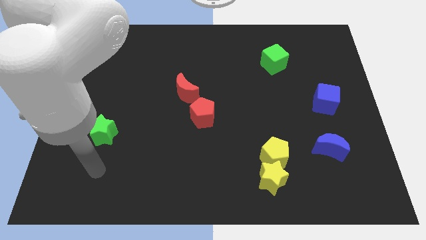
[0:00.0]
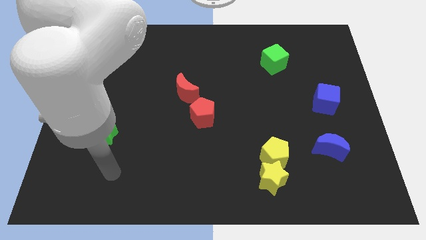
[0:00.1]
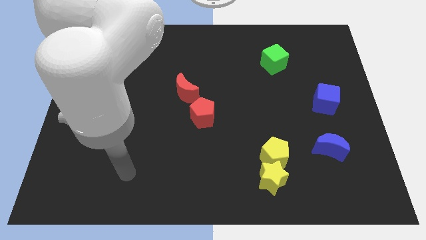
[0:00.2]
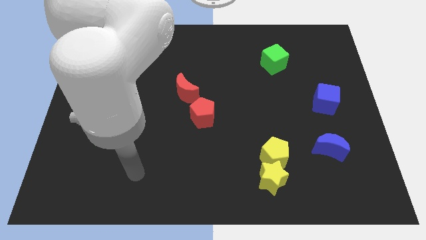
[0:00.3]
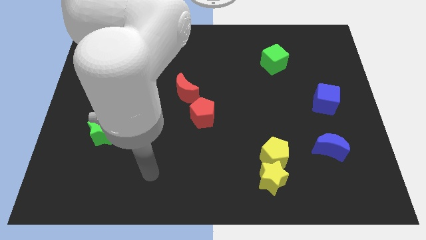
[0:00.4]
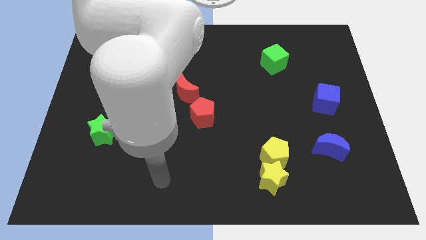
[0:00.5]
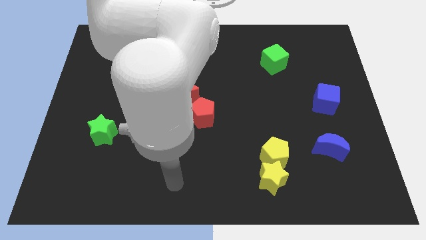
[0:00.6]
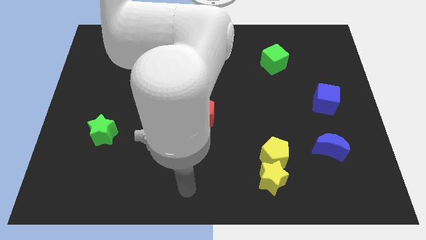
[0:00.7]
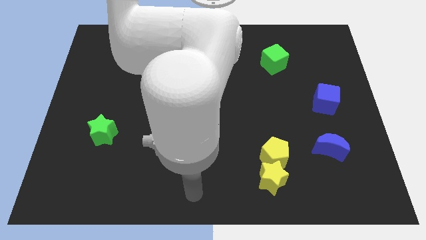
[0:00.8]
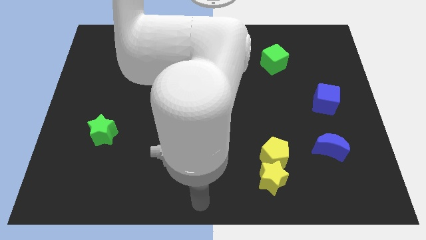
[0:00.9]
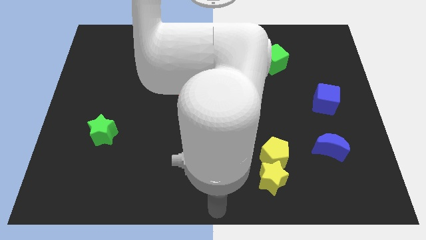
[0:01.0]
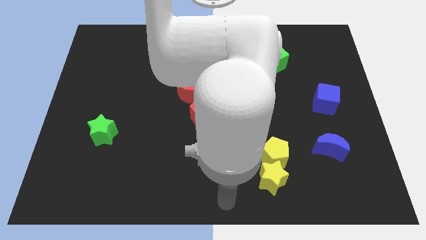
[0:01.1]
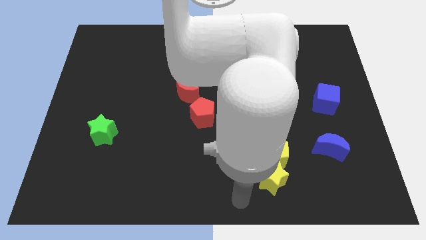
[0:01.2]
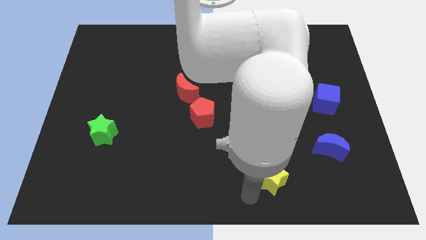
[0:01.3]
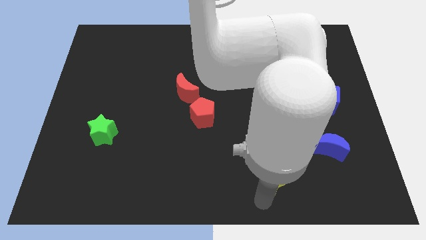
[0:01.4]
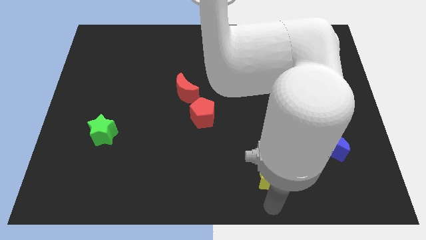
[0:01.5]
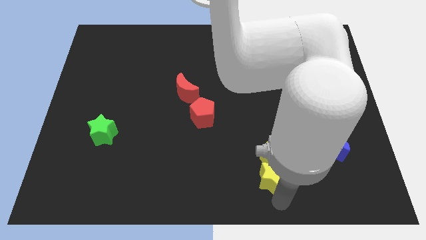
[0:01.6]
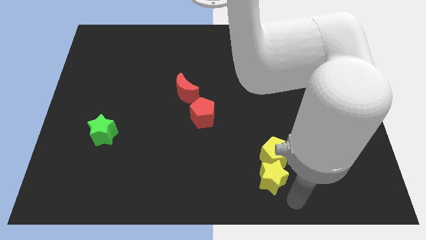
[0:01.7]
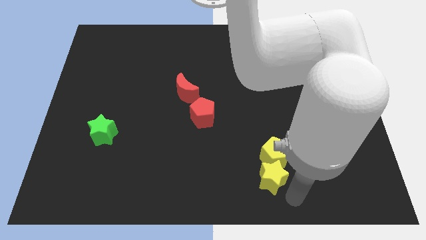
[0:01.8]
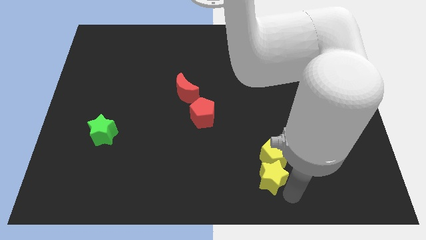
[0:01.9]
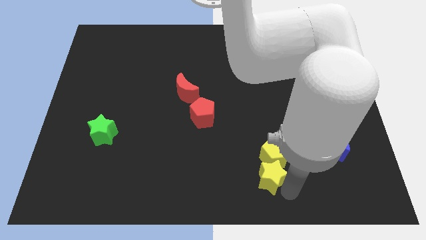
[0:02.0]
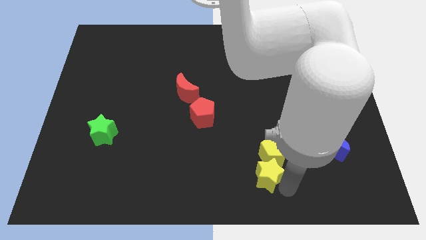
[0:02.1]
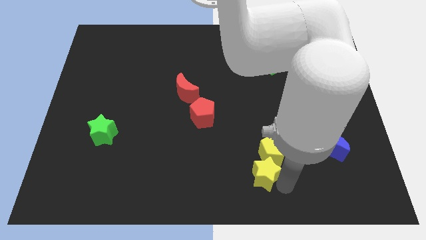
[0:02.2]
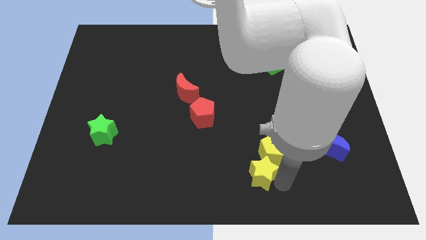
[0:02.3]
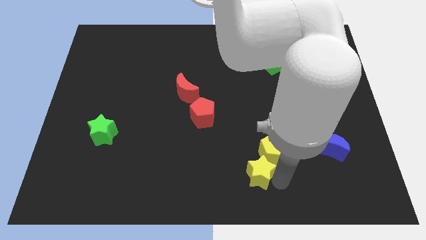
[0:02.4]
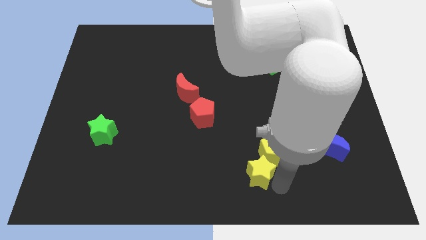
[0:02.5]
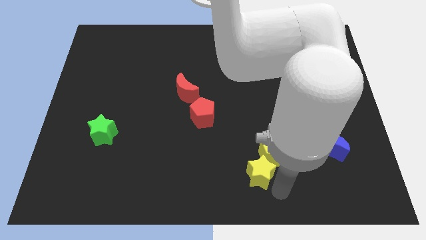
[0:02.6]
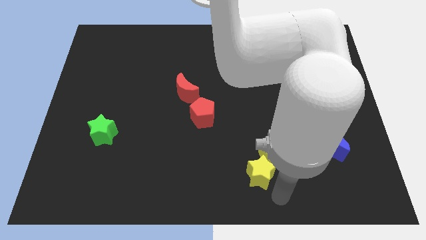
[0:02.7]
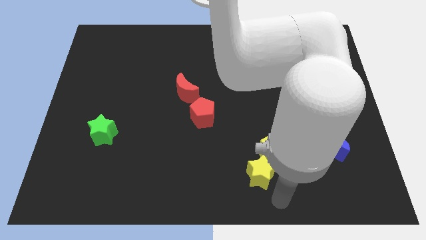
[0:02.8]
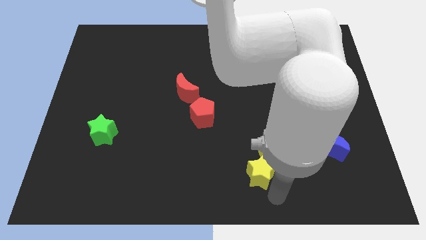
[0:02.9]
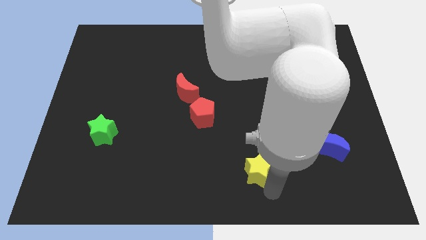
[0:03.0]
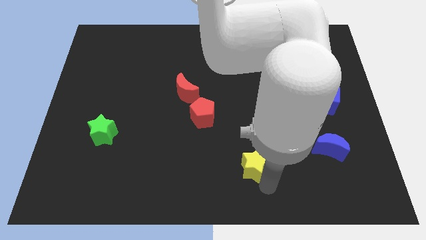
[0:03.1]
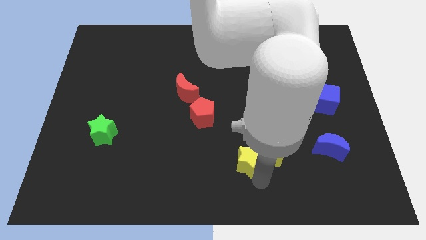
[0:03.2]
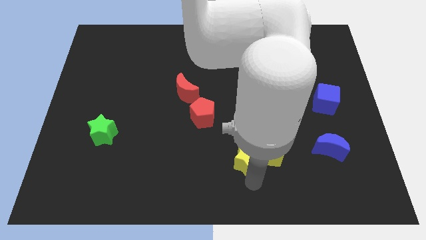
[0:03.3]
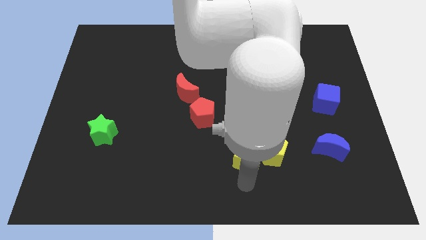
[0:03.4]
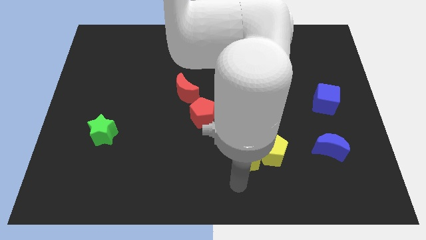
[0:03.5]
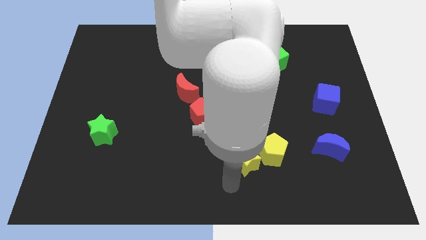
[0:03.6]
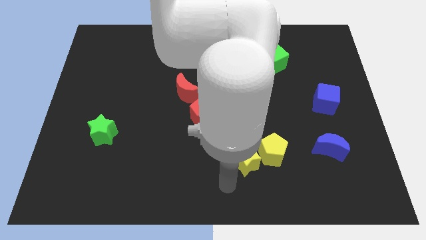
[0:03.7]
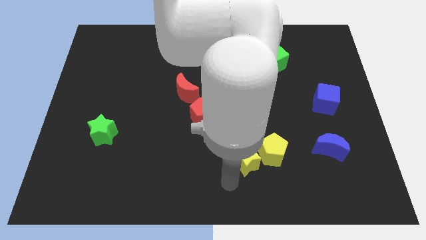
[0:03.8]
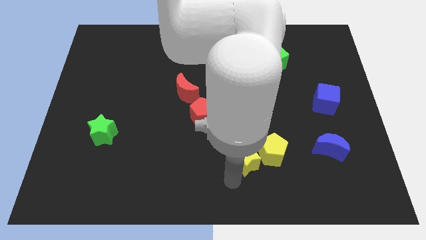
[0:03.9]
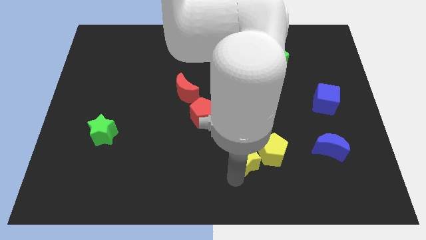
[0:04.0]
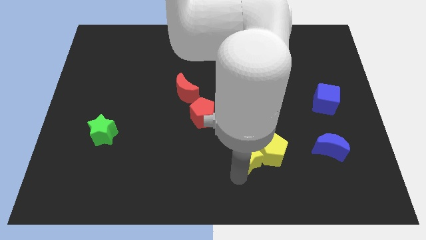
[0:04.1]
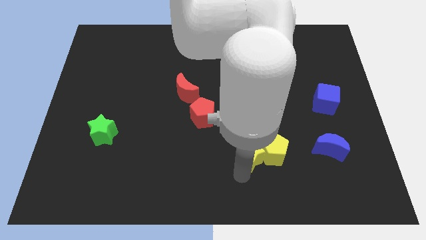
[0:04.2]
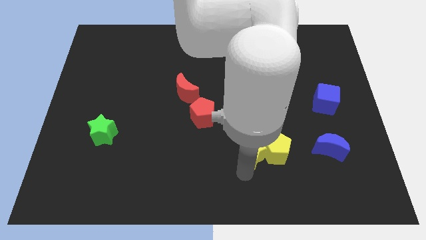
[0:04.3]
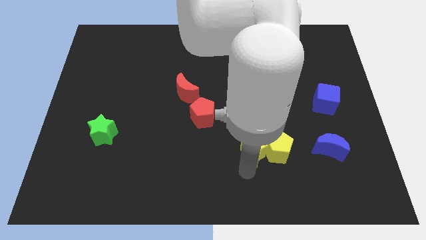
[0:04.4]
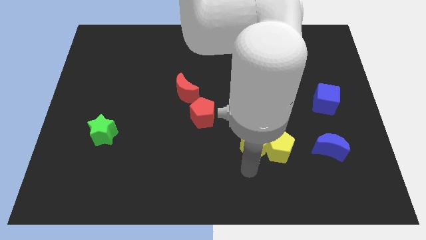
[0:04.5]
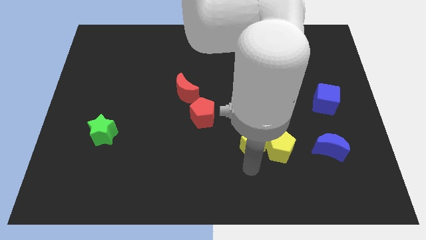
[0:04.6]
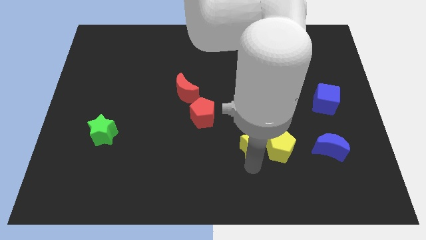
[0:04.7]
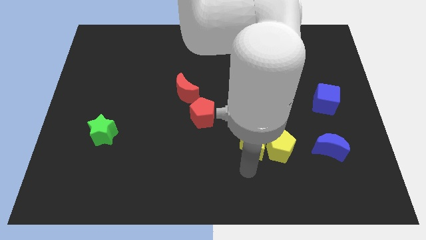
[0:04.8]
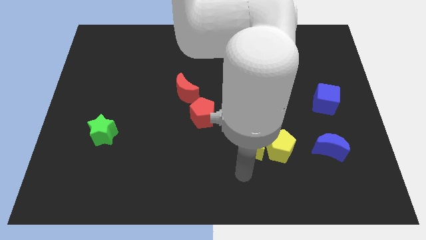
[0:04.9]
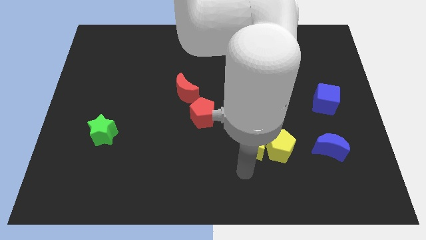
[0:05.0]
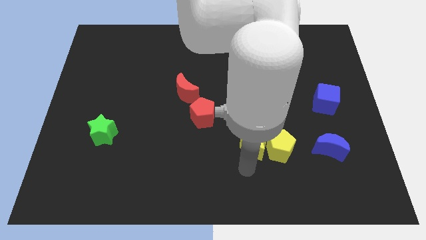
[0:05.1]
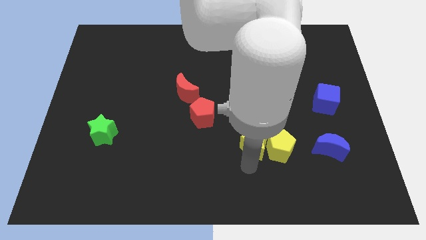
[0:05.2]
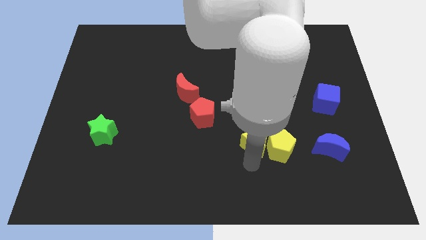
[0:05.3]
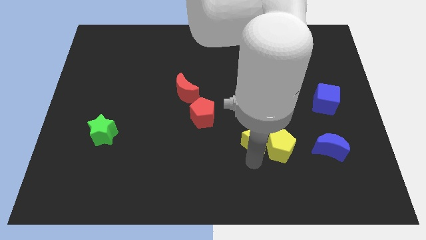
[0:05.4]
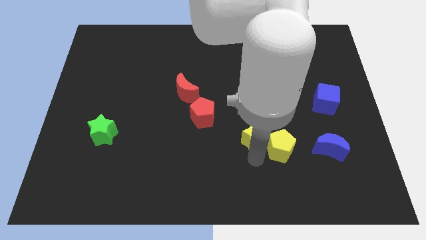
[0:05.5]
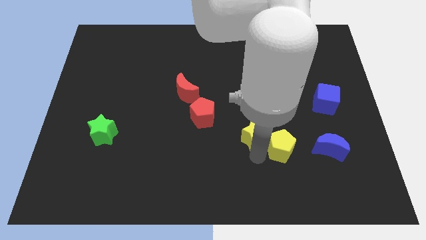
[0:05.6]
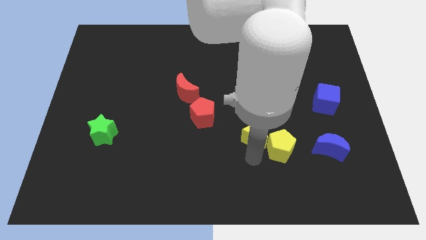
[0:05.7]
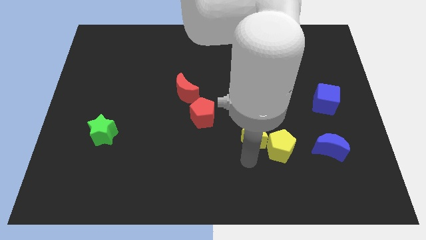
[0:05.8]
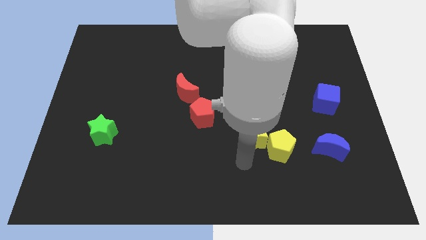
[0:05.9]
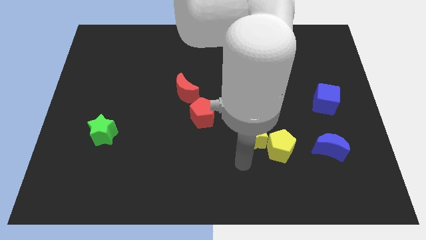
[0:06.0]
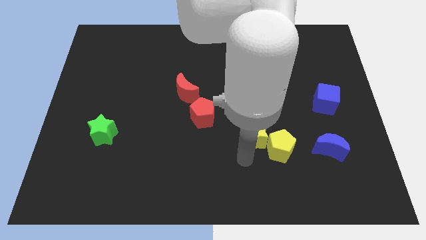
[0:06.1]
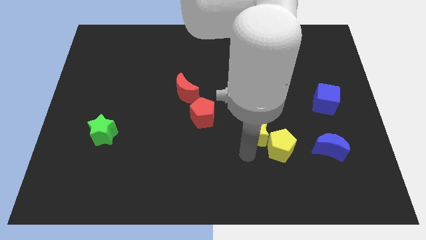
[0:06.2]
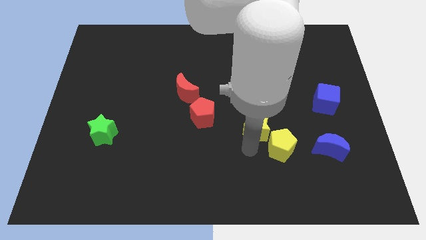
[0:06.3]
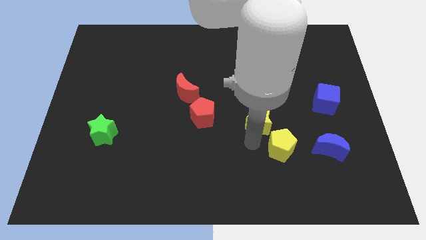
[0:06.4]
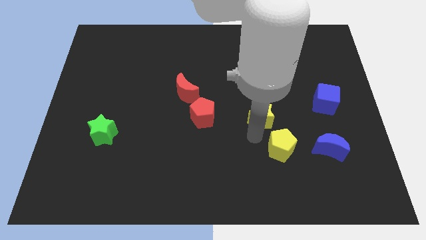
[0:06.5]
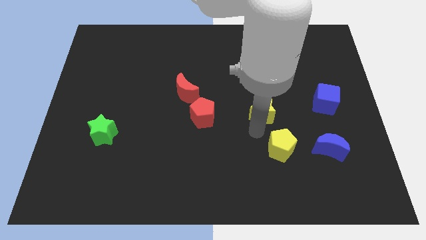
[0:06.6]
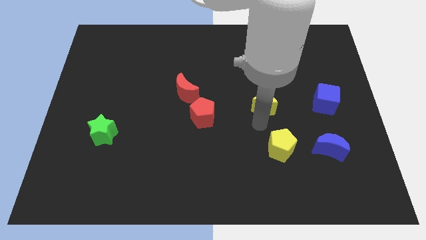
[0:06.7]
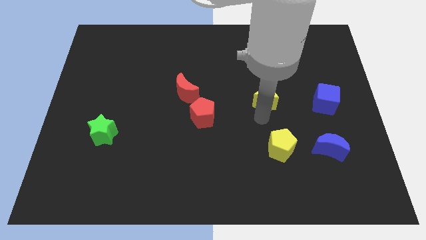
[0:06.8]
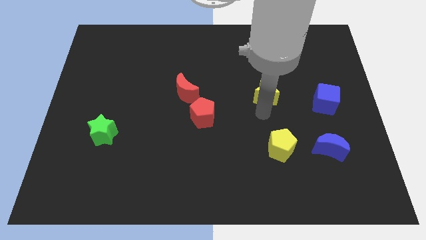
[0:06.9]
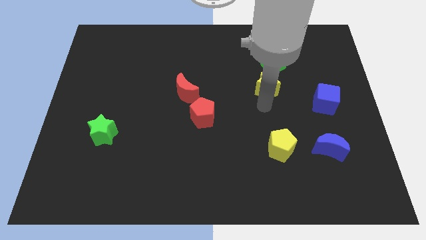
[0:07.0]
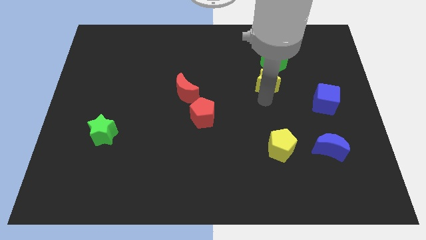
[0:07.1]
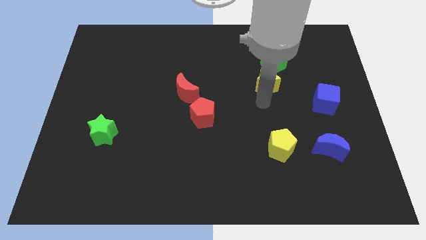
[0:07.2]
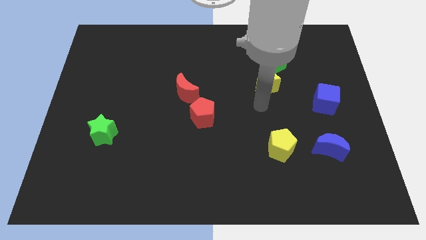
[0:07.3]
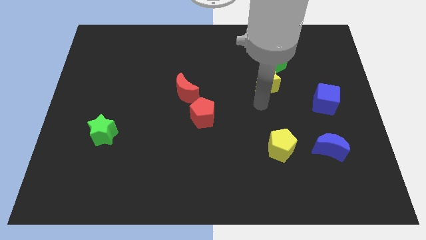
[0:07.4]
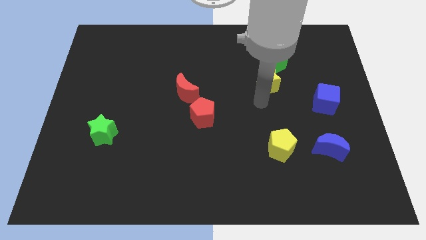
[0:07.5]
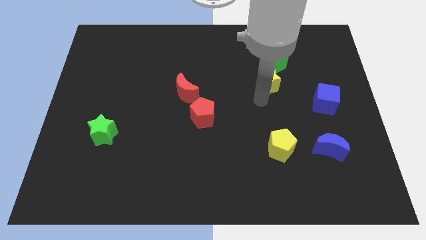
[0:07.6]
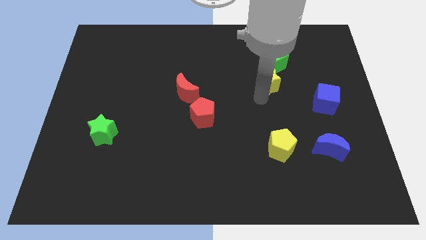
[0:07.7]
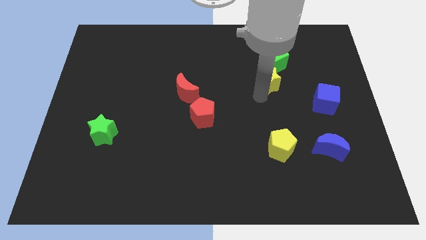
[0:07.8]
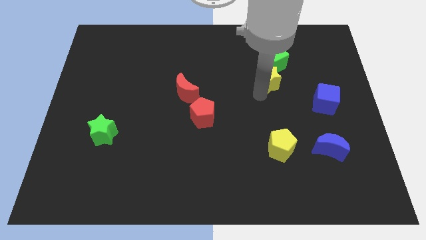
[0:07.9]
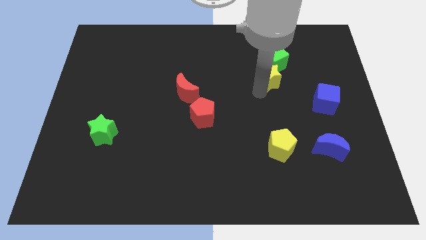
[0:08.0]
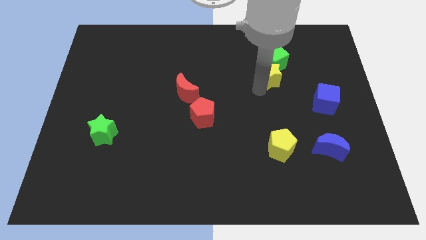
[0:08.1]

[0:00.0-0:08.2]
slide the yellow star towards the green cube
